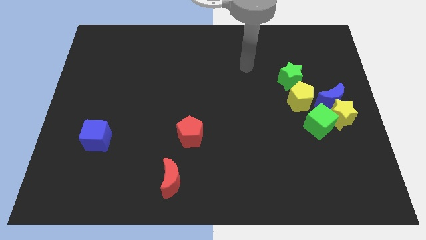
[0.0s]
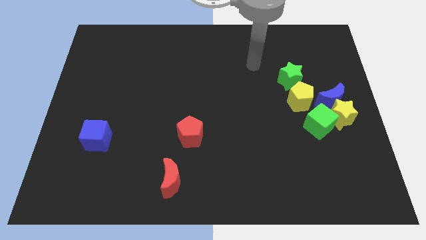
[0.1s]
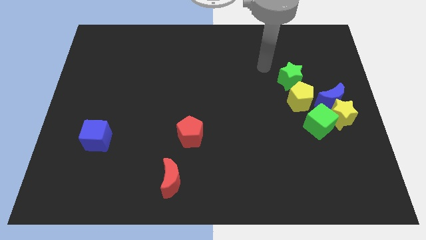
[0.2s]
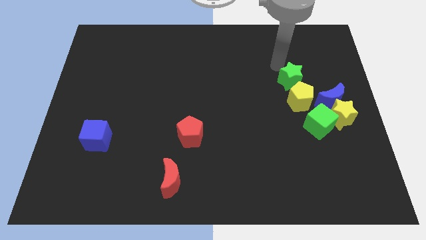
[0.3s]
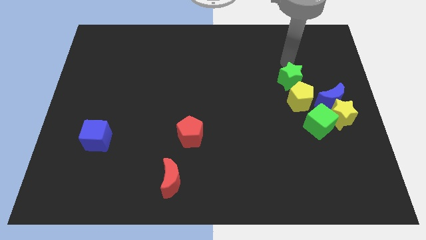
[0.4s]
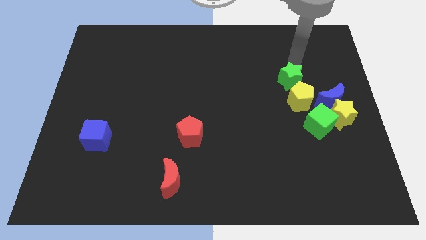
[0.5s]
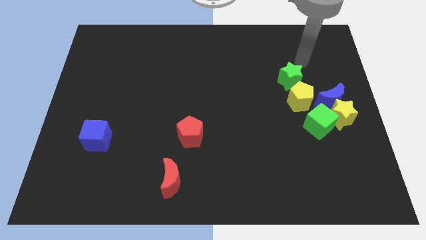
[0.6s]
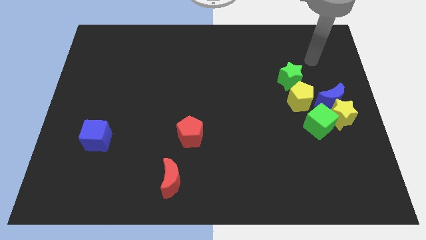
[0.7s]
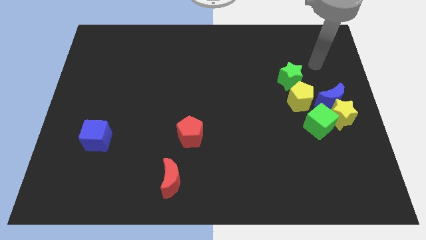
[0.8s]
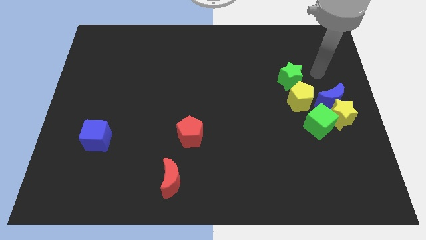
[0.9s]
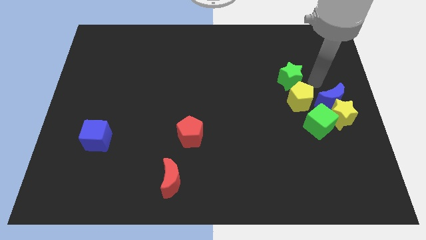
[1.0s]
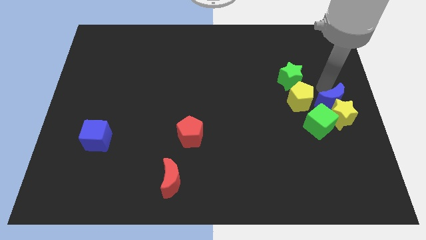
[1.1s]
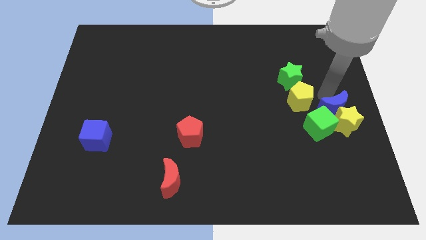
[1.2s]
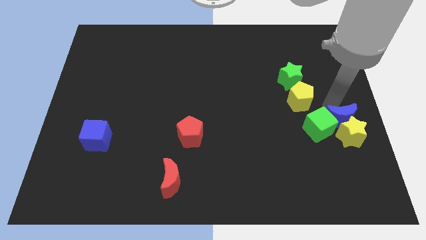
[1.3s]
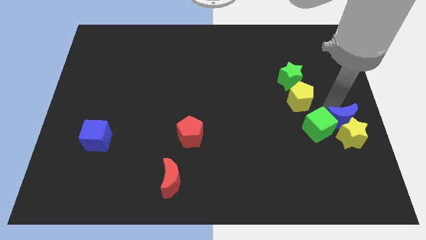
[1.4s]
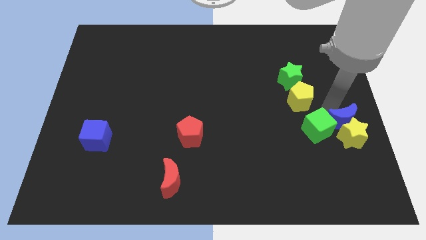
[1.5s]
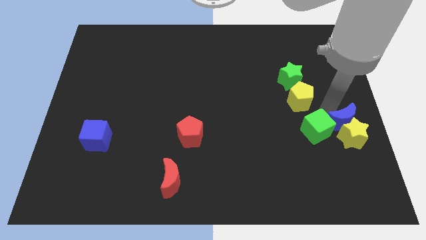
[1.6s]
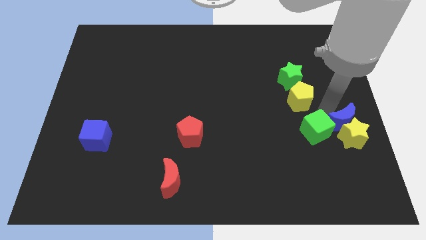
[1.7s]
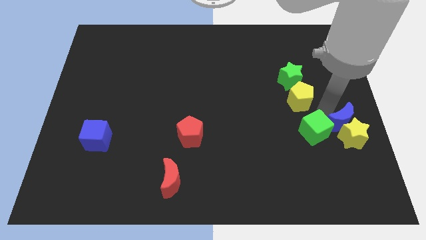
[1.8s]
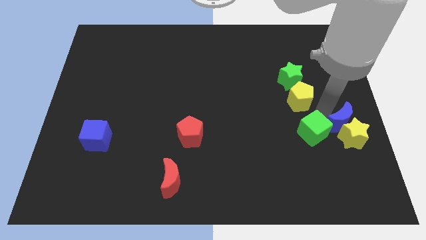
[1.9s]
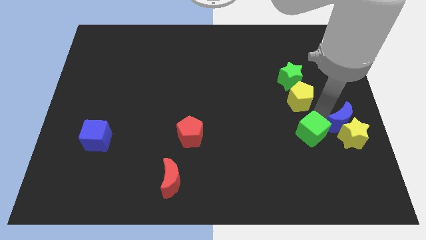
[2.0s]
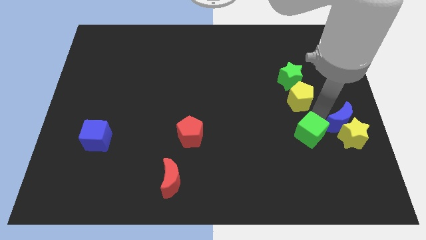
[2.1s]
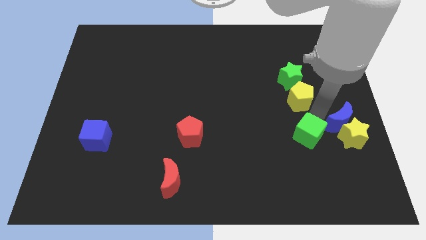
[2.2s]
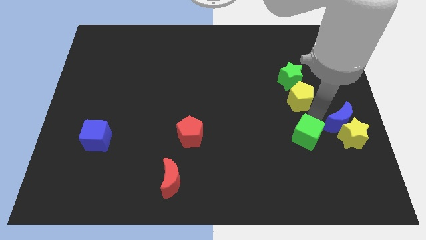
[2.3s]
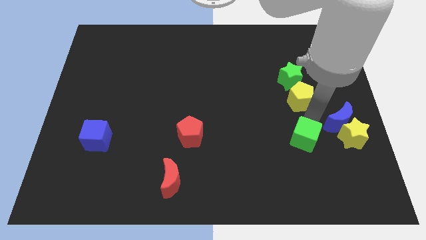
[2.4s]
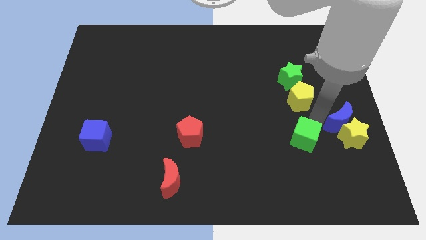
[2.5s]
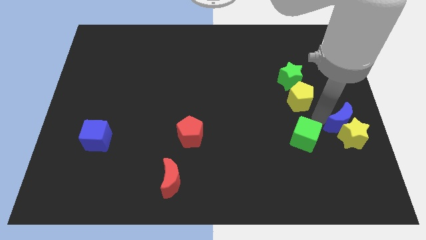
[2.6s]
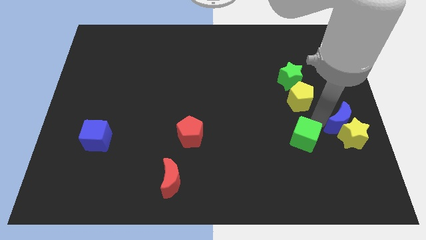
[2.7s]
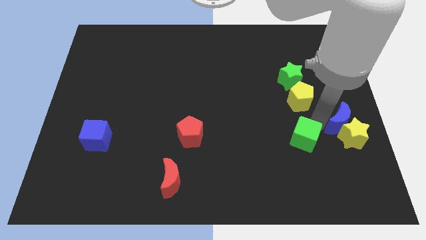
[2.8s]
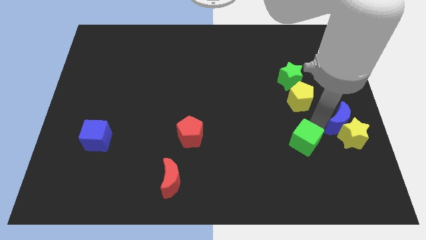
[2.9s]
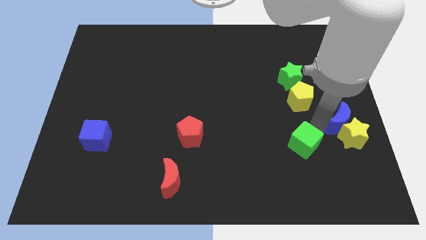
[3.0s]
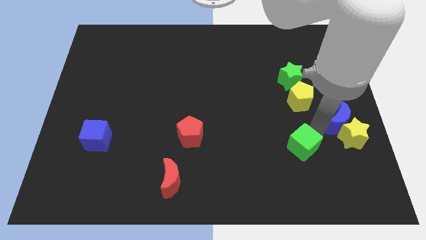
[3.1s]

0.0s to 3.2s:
push the green cube down and left diagonally a bit

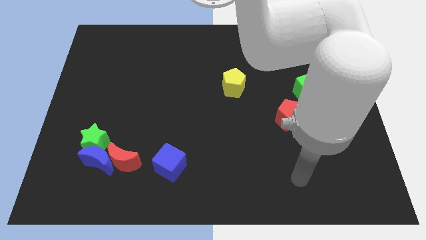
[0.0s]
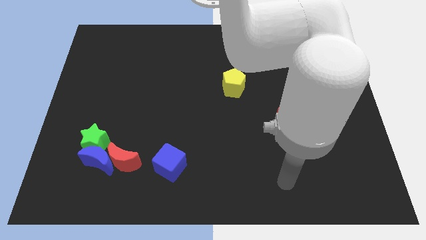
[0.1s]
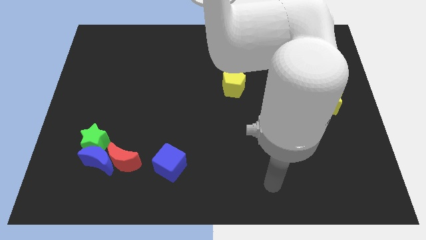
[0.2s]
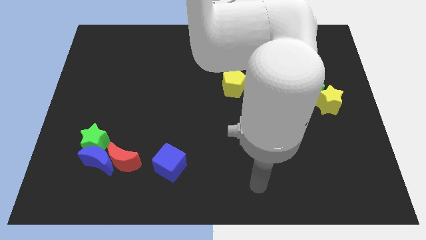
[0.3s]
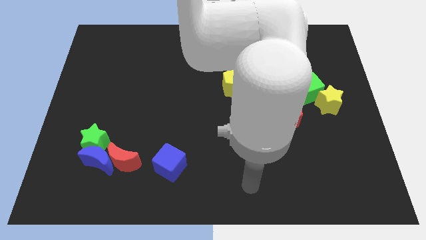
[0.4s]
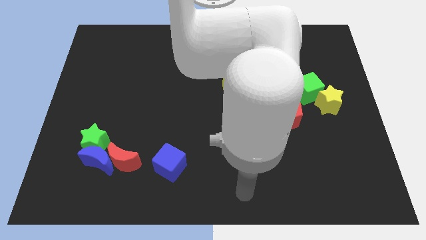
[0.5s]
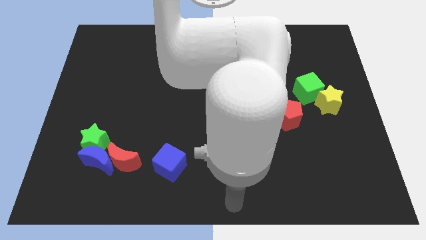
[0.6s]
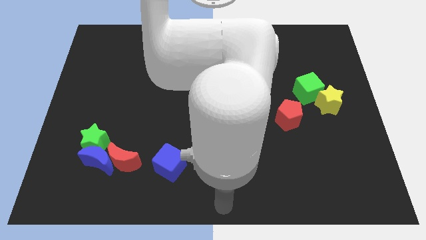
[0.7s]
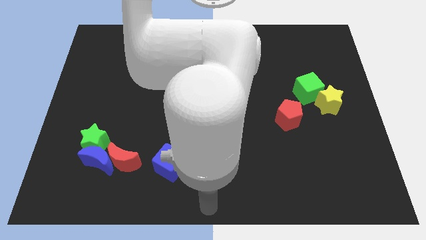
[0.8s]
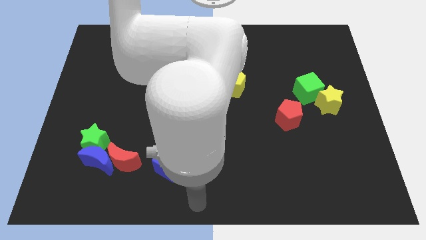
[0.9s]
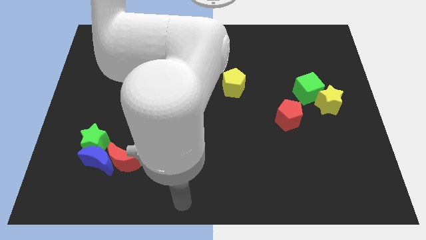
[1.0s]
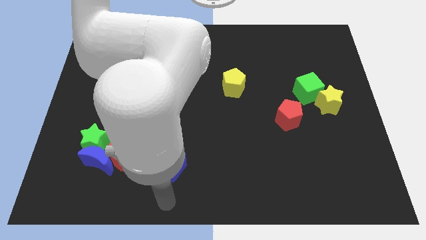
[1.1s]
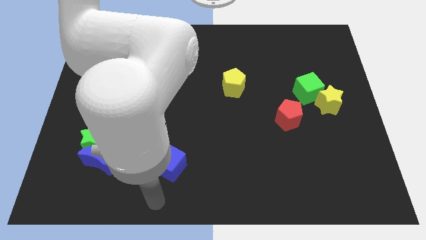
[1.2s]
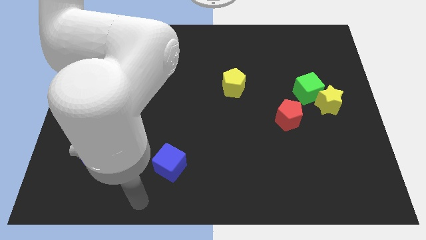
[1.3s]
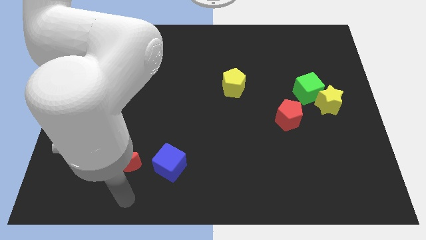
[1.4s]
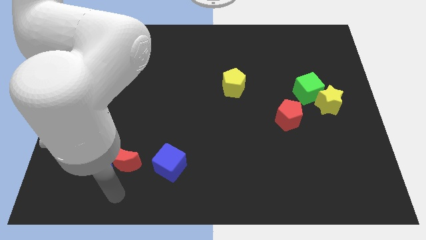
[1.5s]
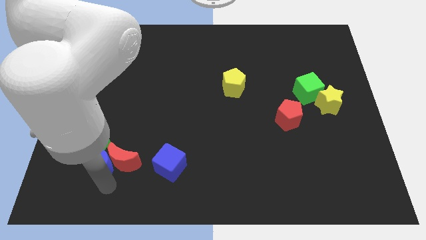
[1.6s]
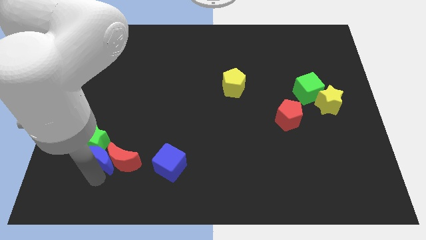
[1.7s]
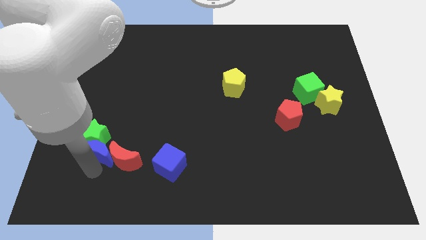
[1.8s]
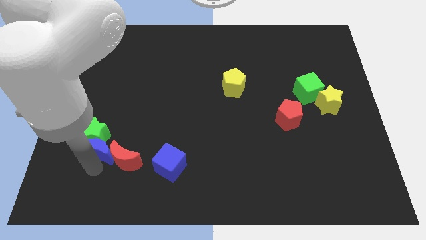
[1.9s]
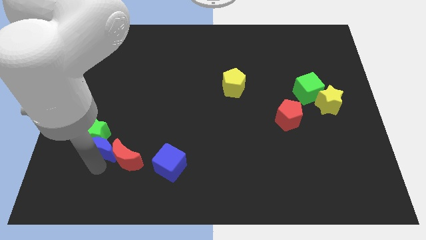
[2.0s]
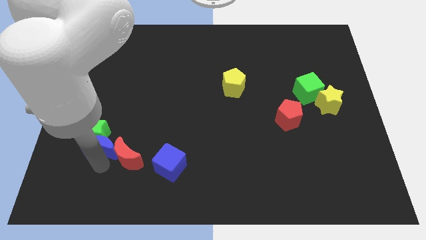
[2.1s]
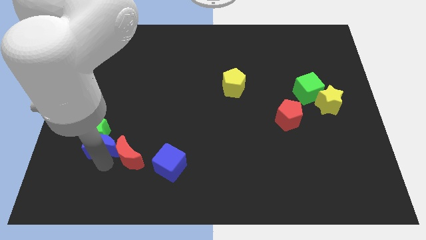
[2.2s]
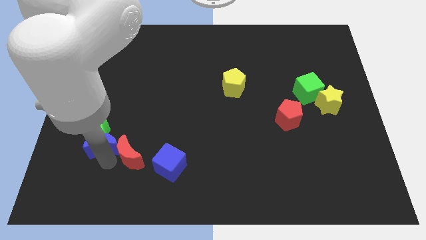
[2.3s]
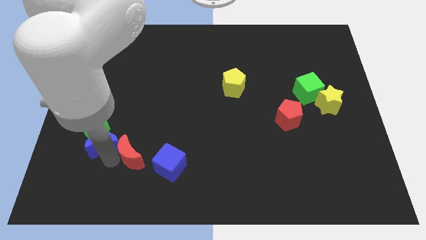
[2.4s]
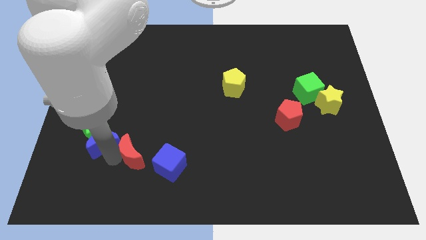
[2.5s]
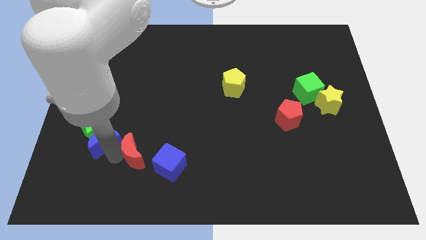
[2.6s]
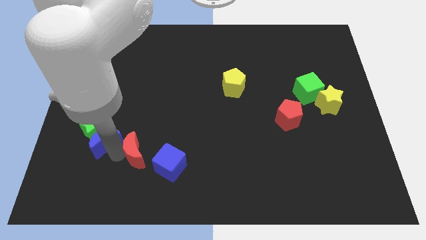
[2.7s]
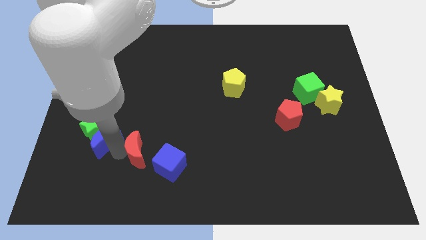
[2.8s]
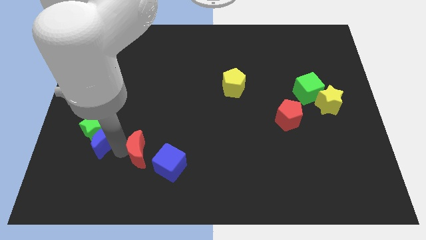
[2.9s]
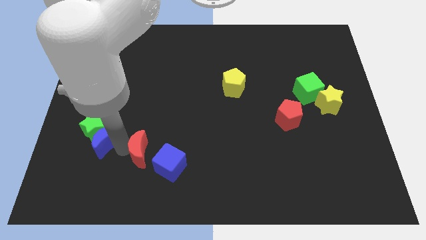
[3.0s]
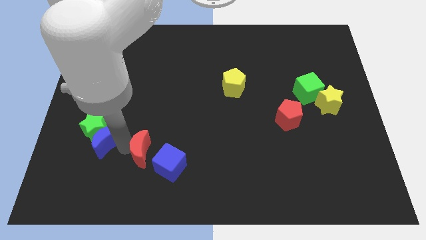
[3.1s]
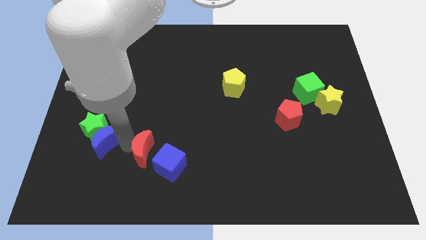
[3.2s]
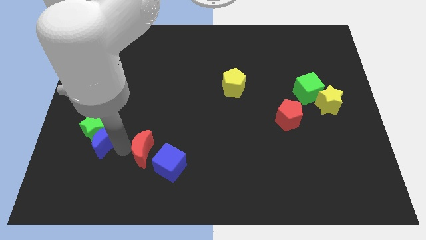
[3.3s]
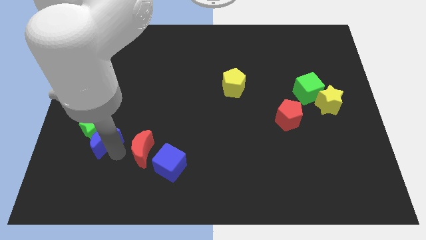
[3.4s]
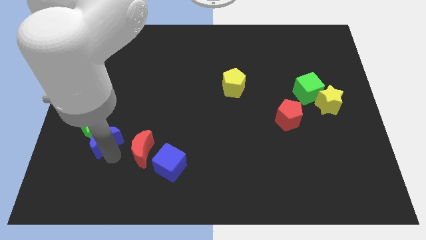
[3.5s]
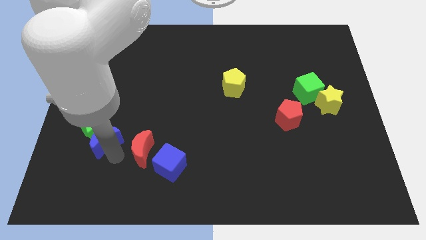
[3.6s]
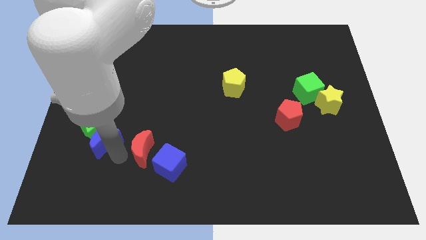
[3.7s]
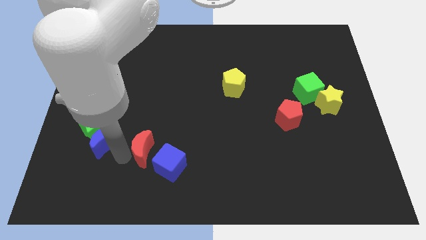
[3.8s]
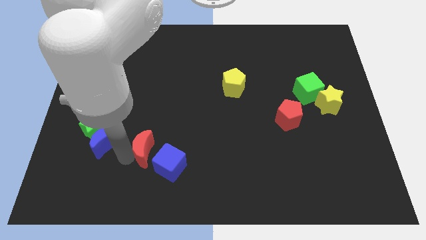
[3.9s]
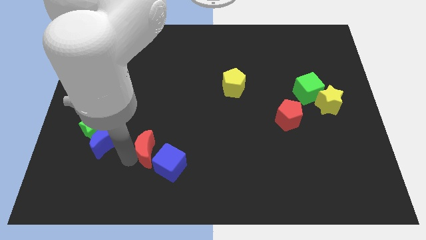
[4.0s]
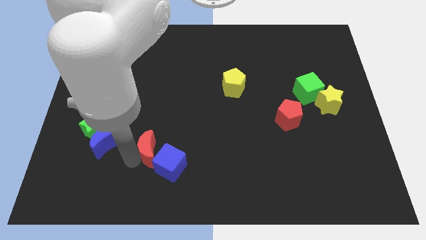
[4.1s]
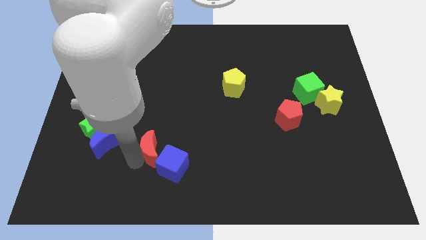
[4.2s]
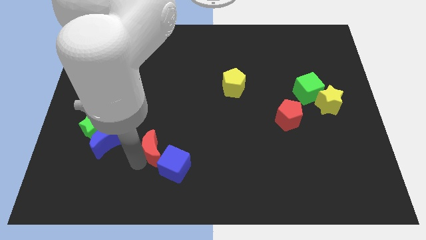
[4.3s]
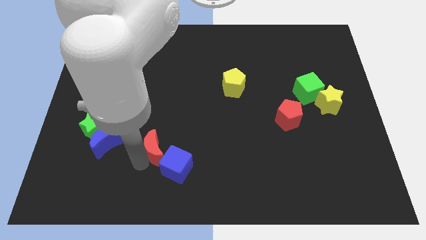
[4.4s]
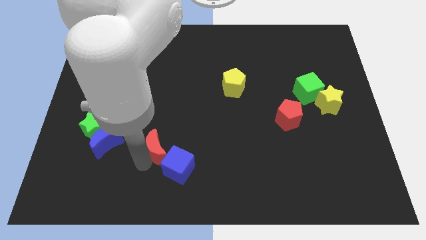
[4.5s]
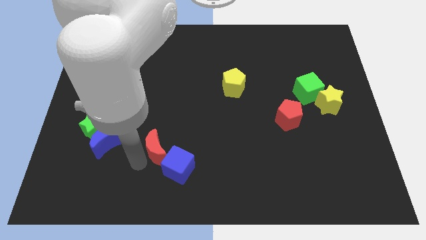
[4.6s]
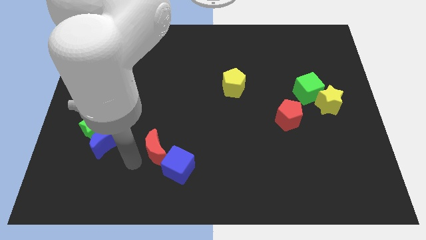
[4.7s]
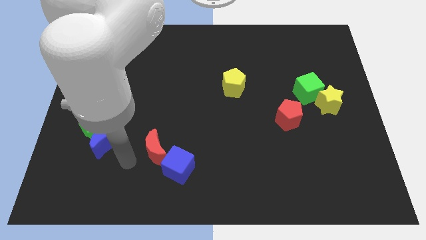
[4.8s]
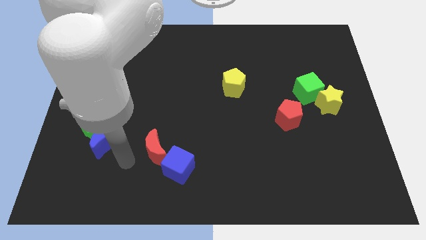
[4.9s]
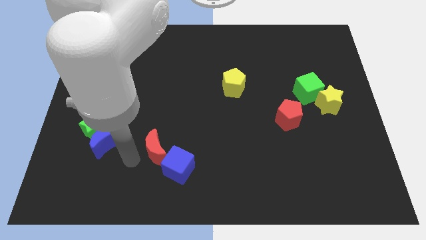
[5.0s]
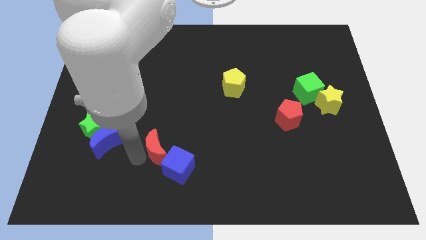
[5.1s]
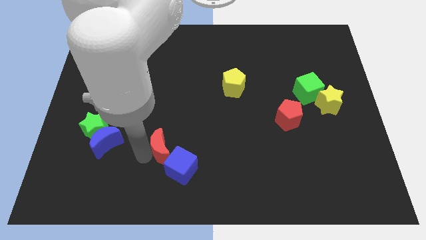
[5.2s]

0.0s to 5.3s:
slide the red moon a little bit to the right
